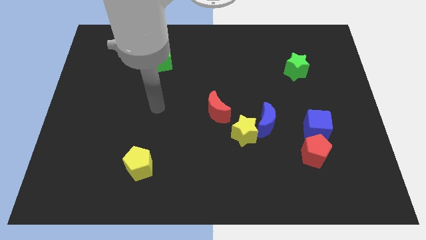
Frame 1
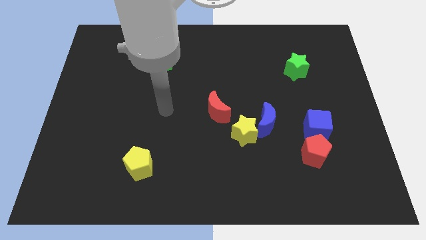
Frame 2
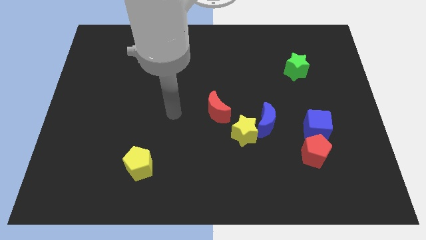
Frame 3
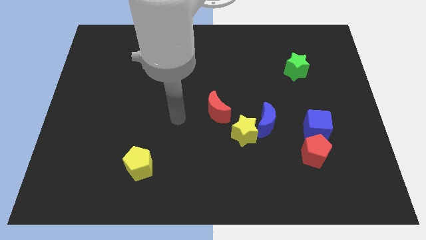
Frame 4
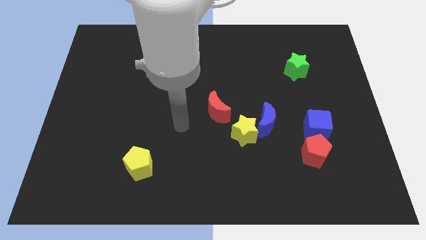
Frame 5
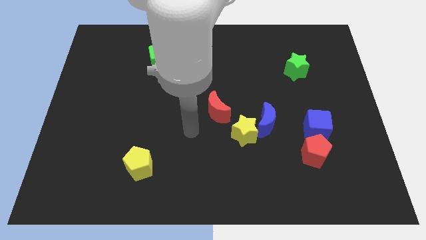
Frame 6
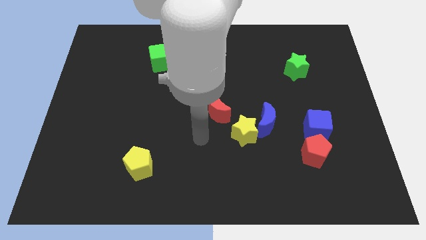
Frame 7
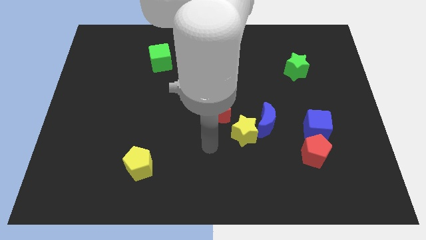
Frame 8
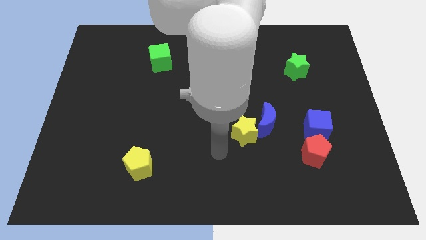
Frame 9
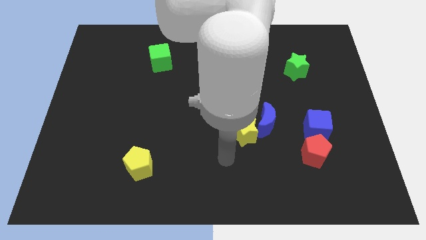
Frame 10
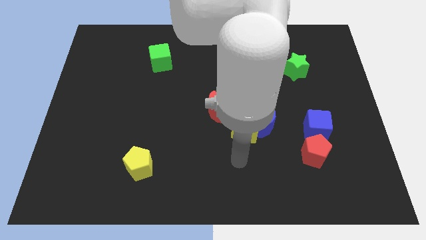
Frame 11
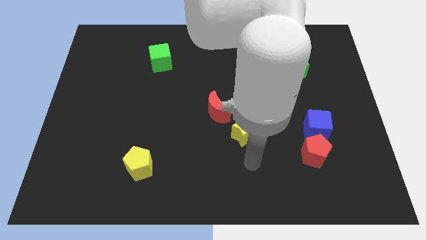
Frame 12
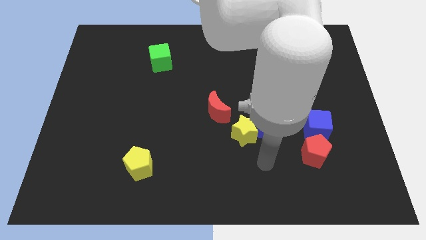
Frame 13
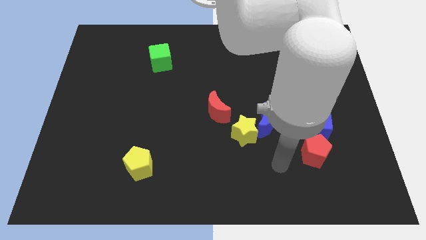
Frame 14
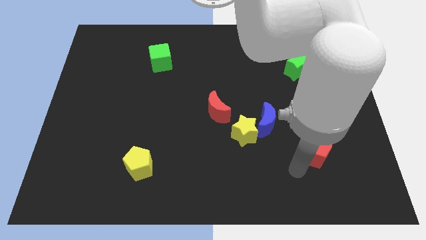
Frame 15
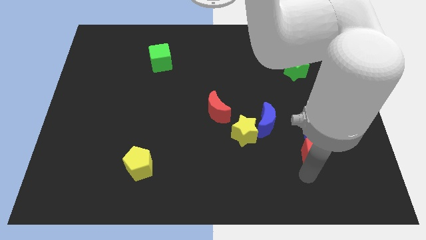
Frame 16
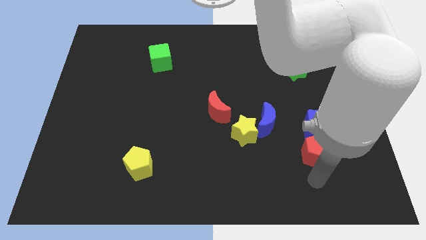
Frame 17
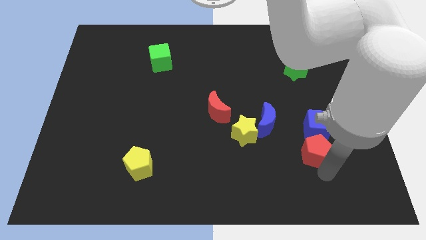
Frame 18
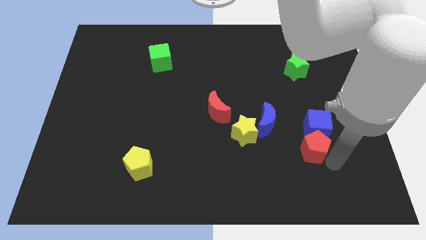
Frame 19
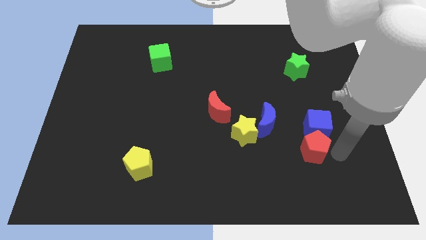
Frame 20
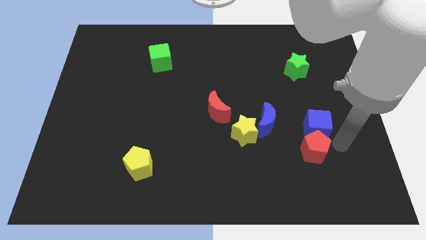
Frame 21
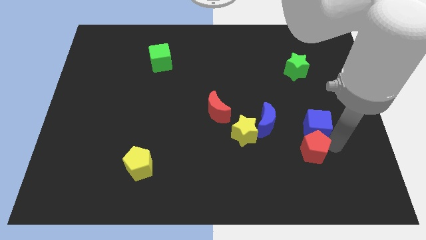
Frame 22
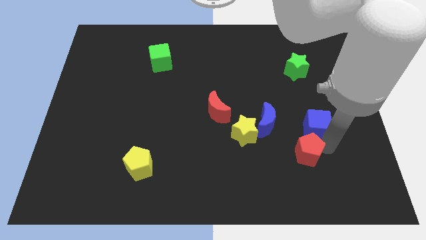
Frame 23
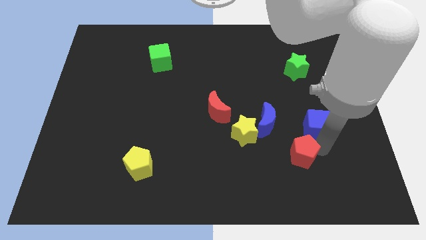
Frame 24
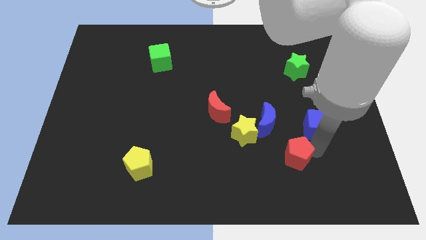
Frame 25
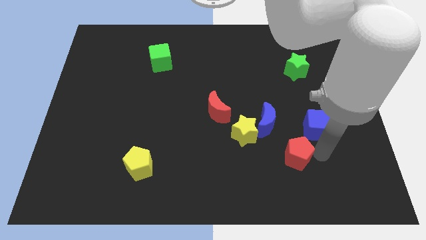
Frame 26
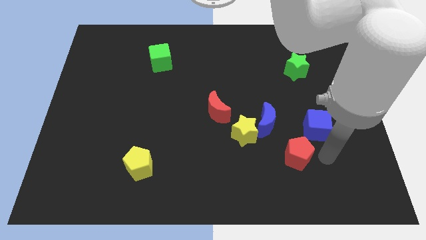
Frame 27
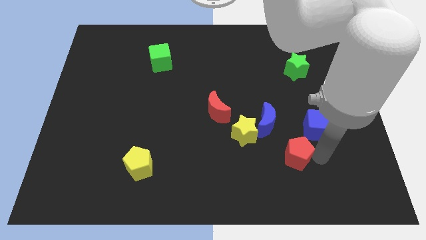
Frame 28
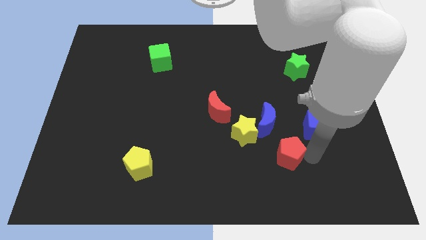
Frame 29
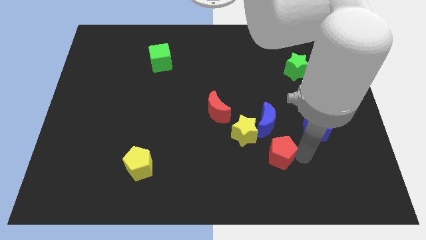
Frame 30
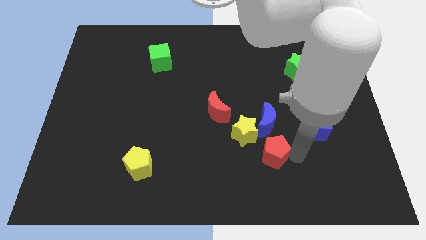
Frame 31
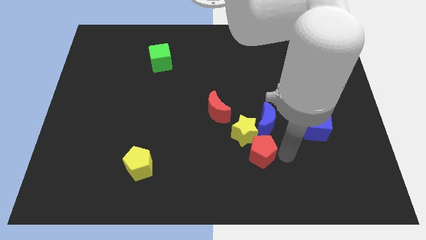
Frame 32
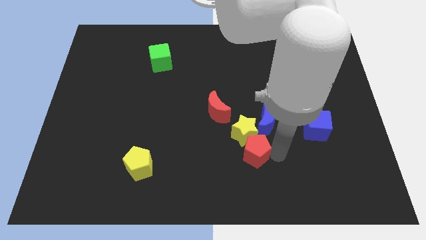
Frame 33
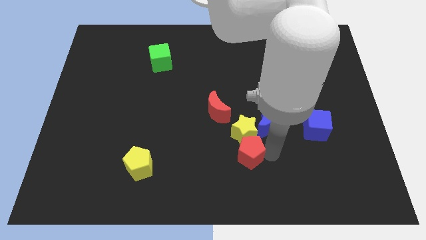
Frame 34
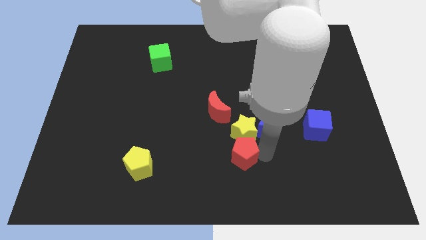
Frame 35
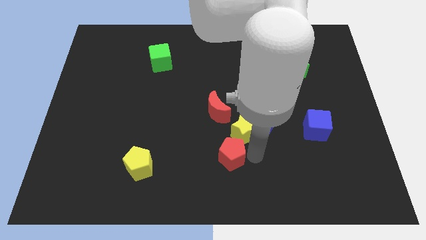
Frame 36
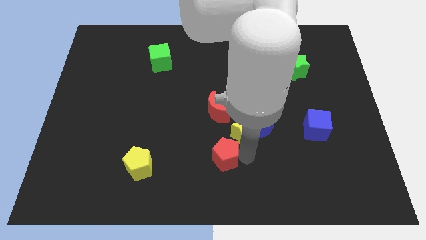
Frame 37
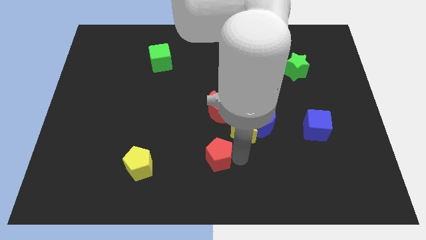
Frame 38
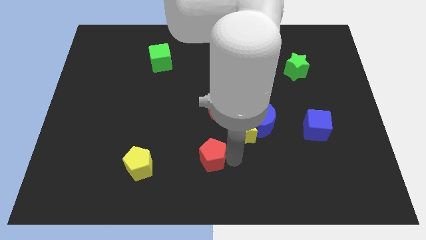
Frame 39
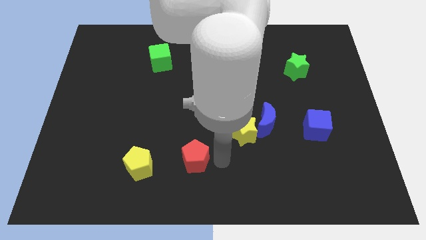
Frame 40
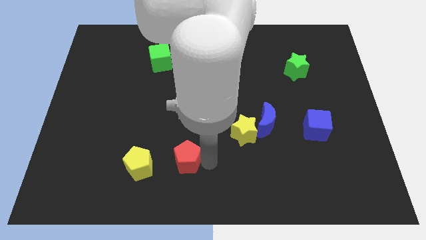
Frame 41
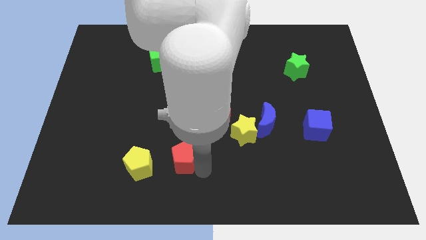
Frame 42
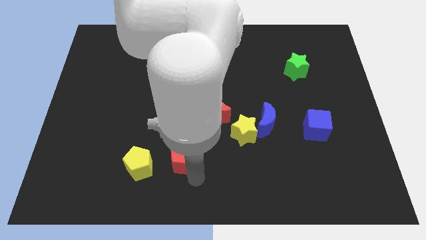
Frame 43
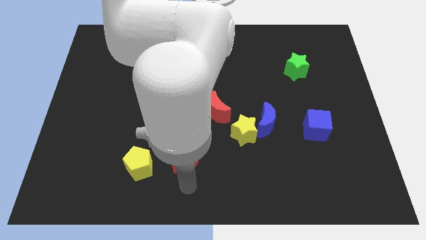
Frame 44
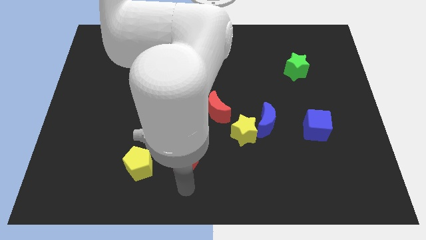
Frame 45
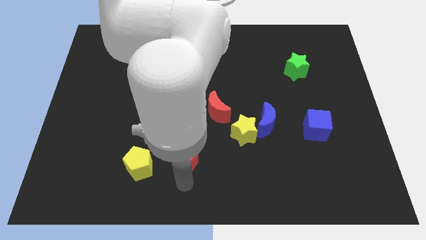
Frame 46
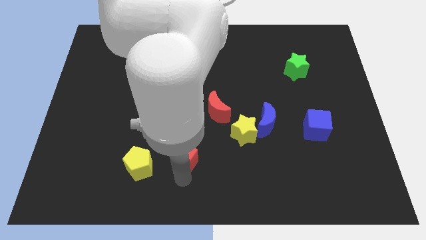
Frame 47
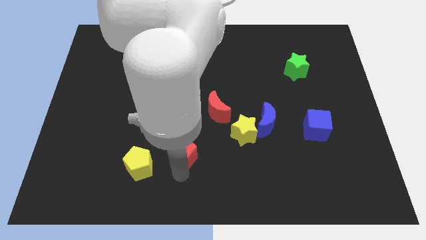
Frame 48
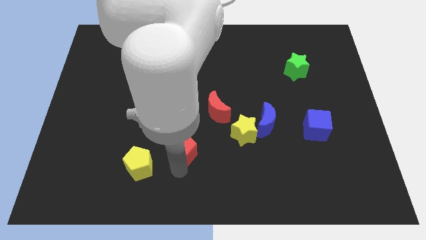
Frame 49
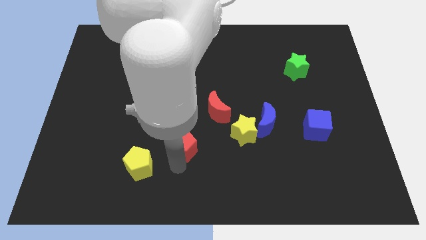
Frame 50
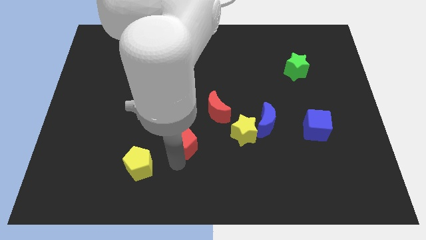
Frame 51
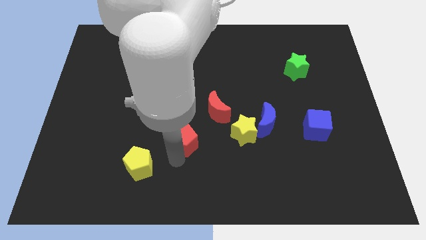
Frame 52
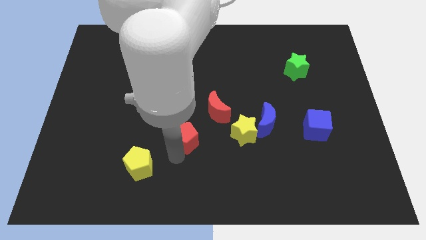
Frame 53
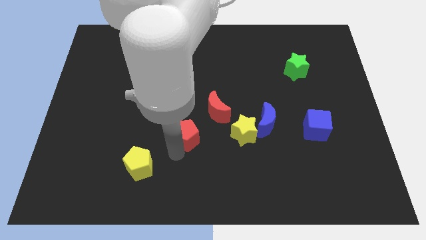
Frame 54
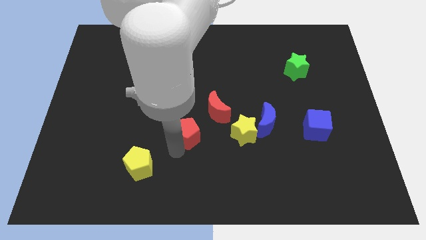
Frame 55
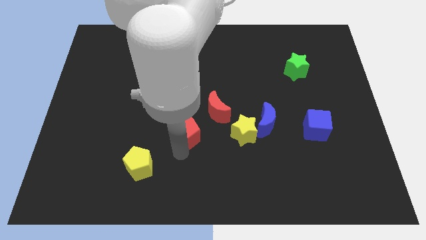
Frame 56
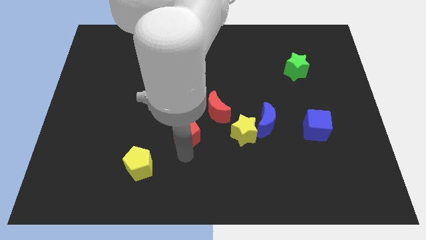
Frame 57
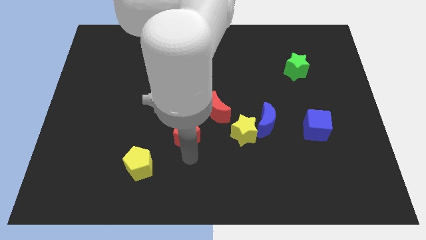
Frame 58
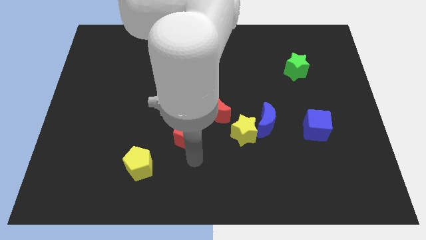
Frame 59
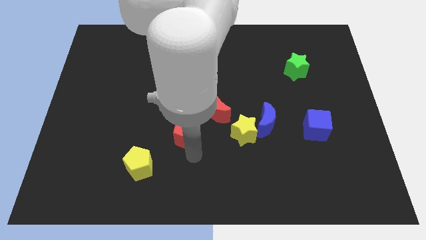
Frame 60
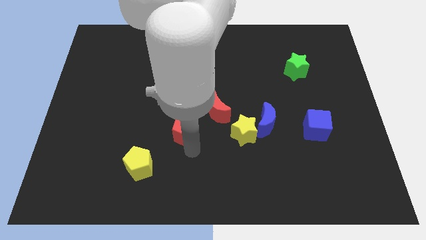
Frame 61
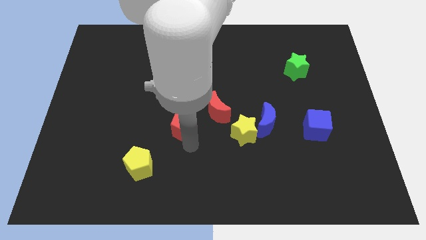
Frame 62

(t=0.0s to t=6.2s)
slide the red pentagon left of the red moon

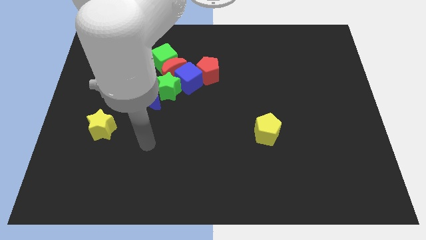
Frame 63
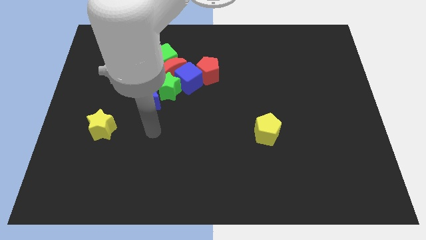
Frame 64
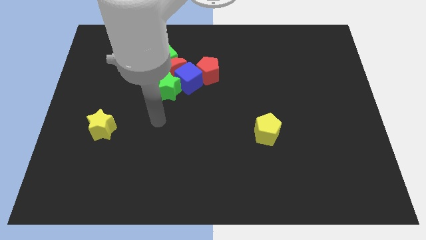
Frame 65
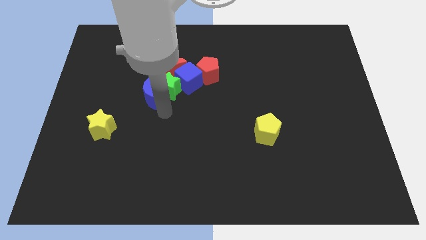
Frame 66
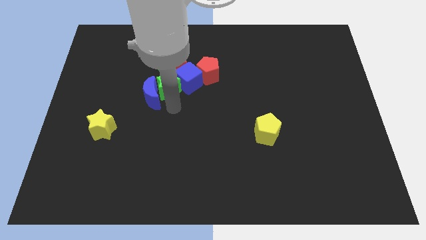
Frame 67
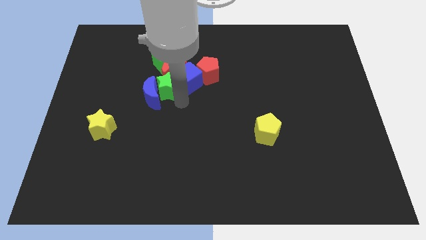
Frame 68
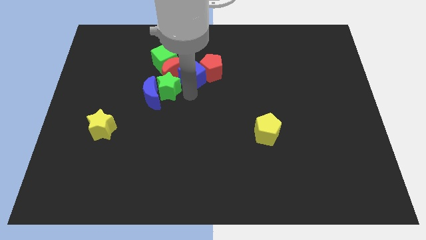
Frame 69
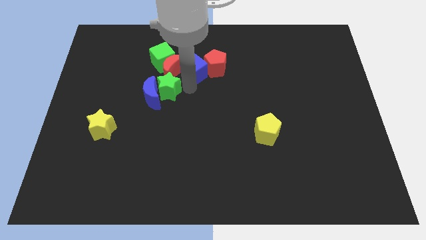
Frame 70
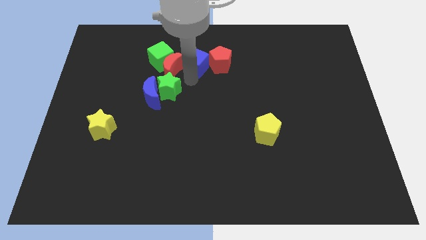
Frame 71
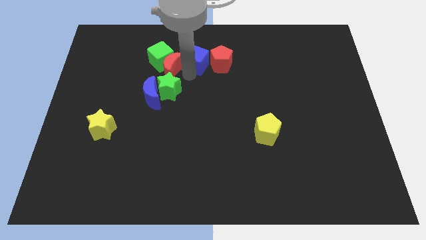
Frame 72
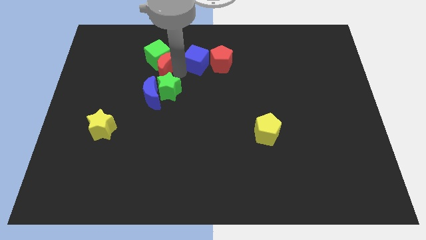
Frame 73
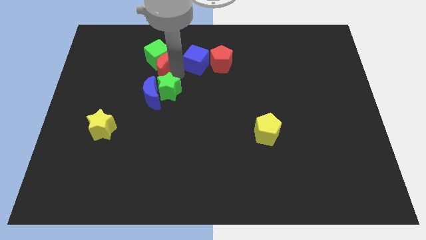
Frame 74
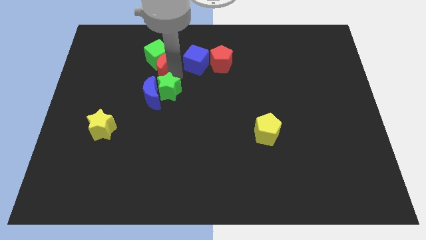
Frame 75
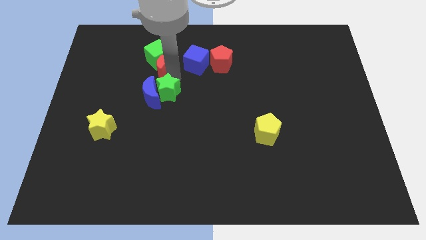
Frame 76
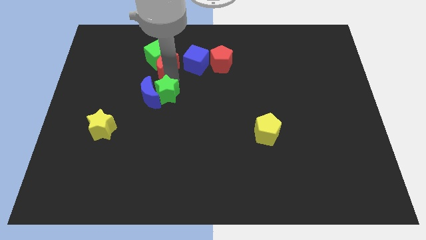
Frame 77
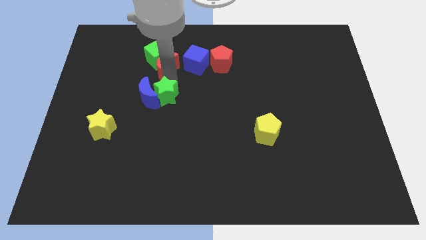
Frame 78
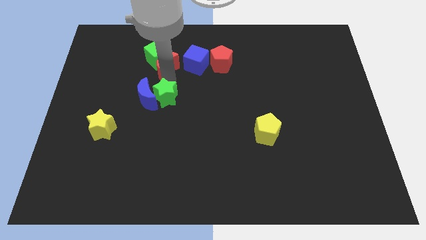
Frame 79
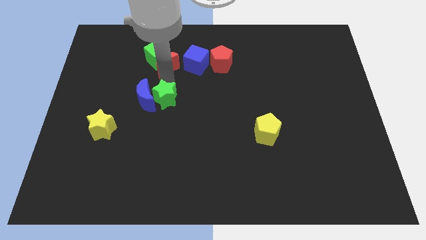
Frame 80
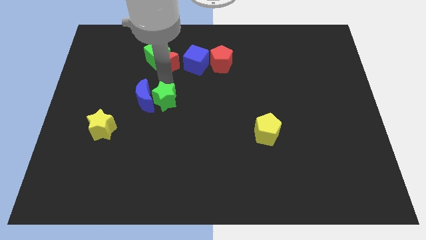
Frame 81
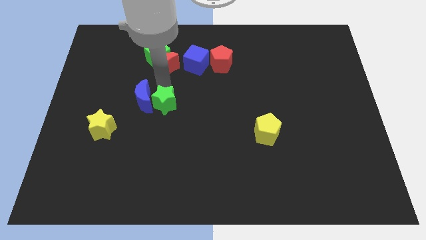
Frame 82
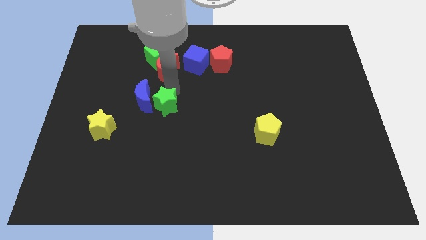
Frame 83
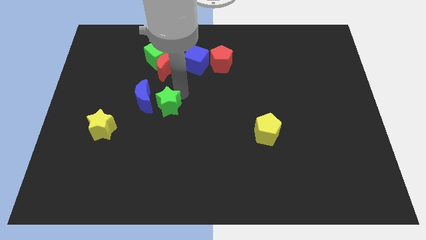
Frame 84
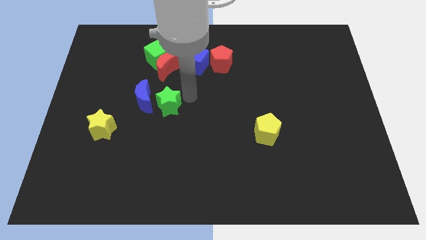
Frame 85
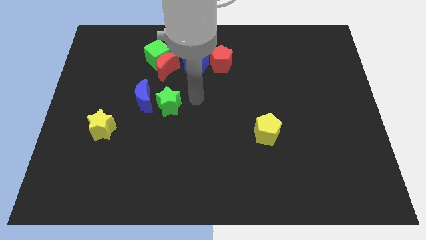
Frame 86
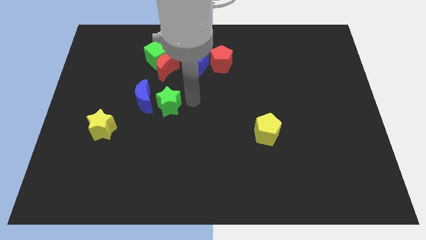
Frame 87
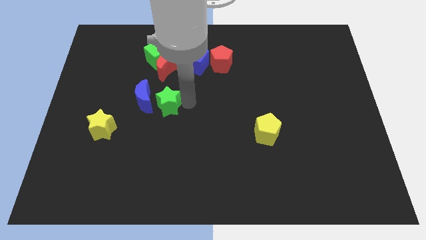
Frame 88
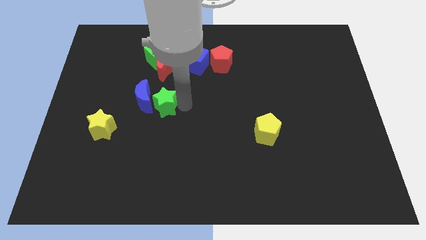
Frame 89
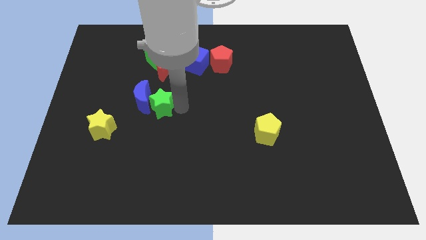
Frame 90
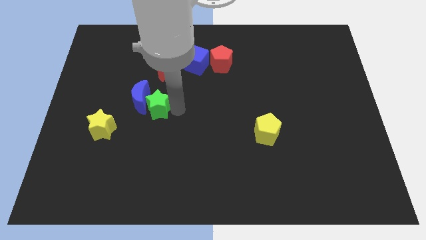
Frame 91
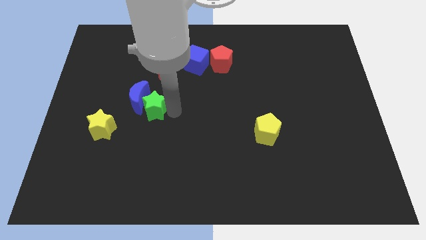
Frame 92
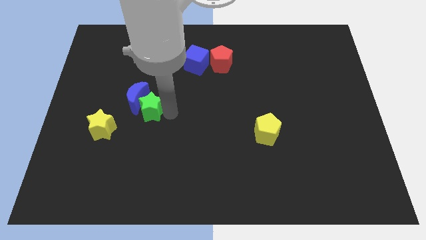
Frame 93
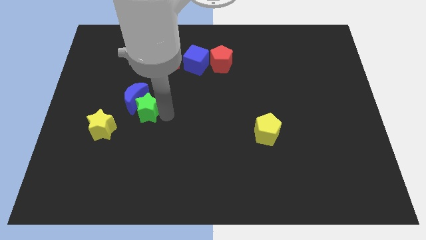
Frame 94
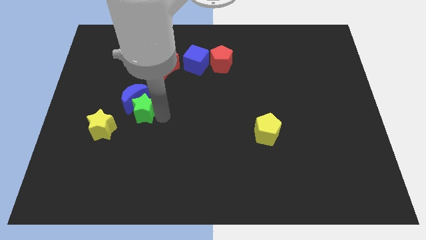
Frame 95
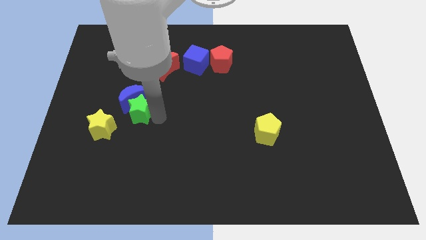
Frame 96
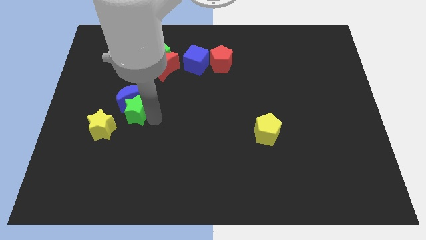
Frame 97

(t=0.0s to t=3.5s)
slide the green star to the bottom left of the blue moon
